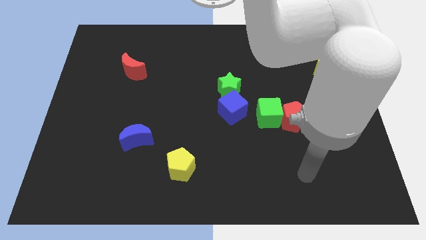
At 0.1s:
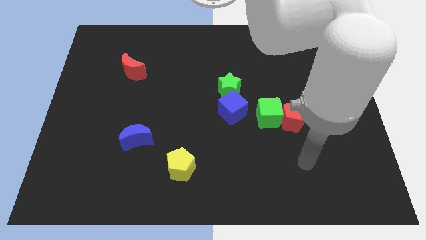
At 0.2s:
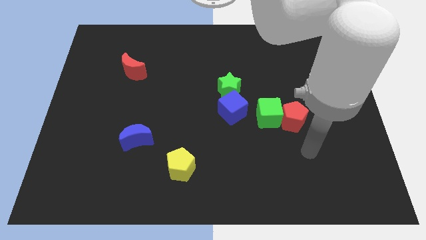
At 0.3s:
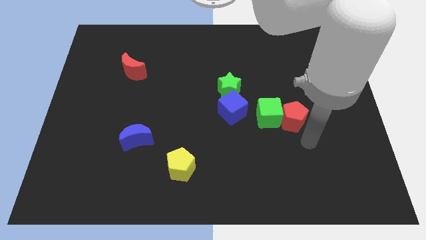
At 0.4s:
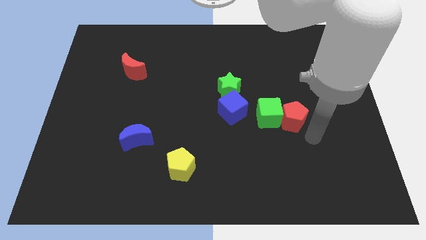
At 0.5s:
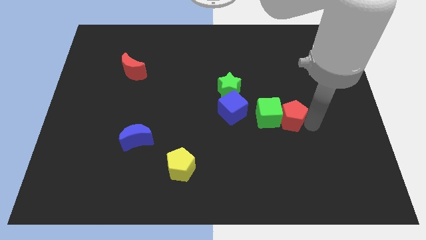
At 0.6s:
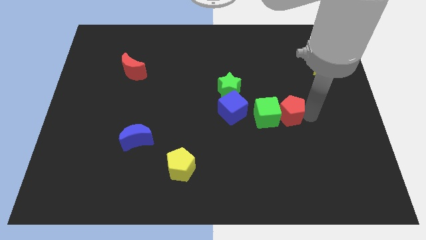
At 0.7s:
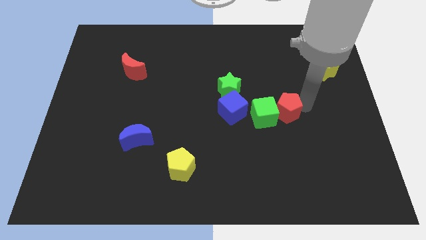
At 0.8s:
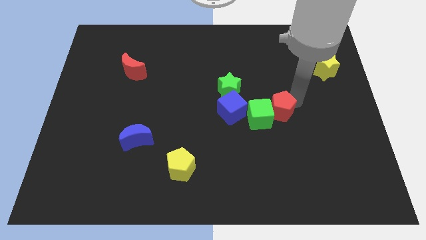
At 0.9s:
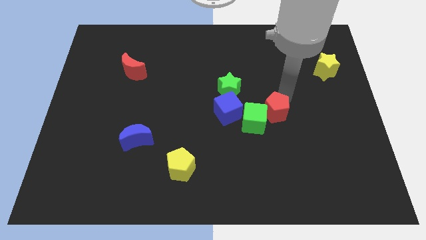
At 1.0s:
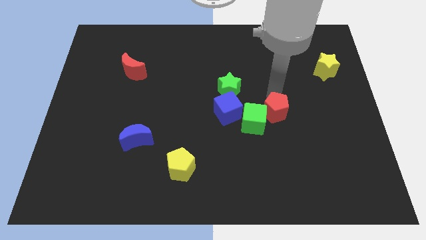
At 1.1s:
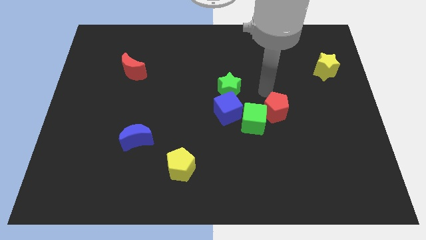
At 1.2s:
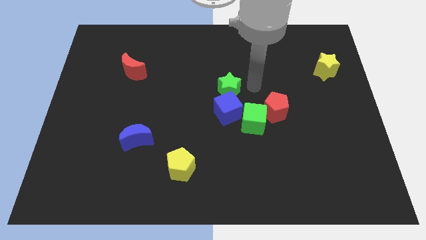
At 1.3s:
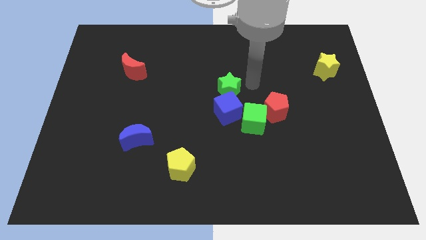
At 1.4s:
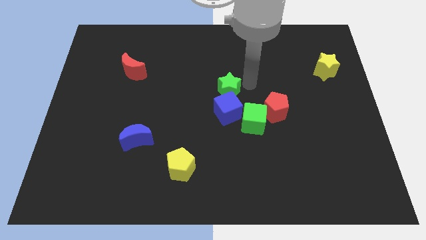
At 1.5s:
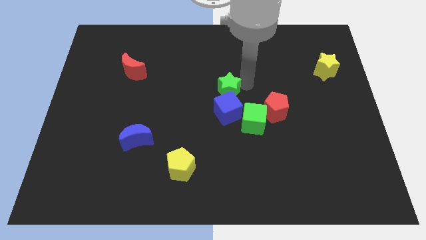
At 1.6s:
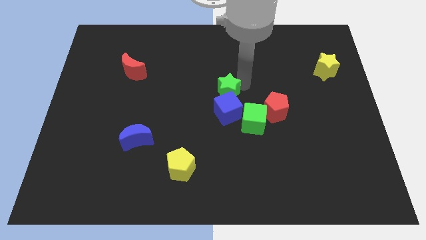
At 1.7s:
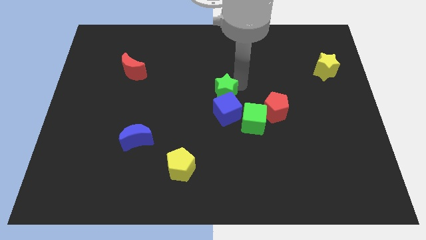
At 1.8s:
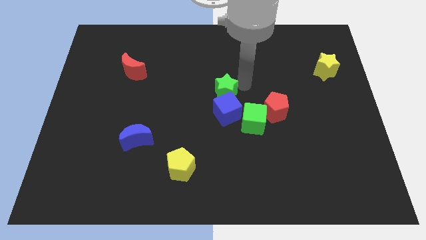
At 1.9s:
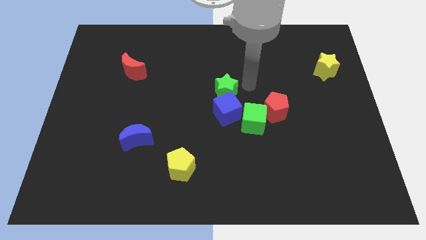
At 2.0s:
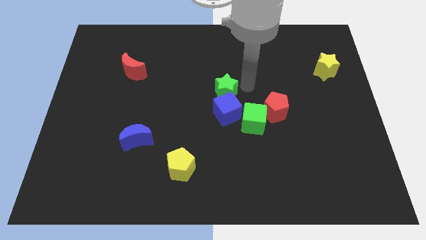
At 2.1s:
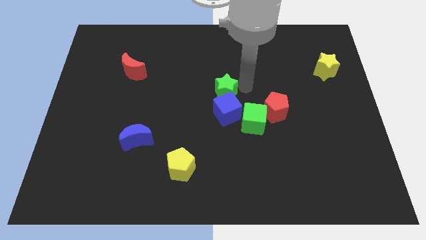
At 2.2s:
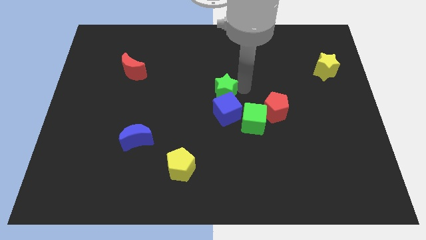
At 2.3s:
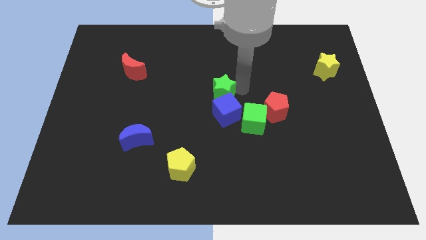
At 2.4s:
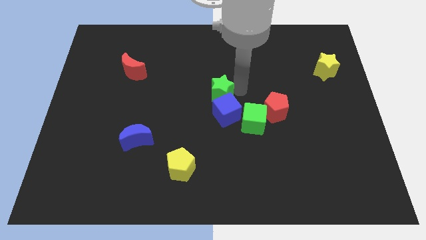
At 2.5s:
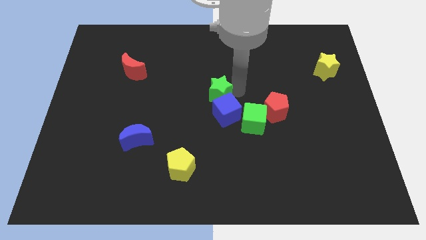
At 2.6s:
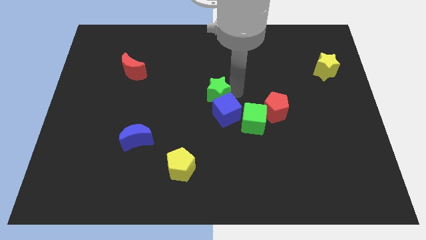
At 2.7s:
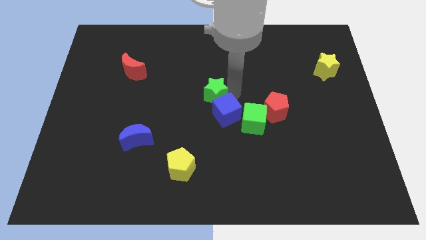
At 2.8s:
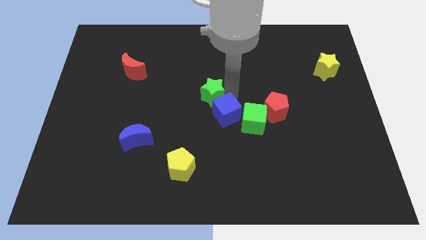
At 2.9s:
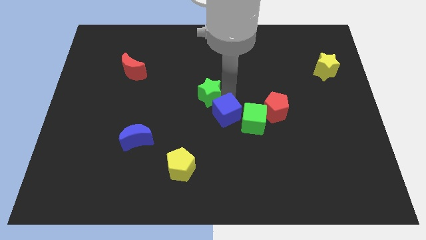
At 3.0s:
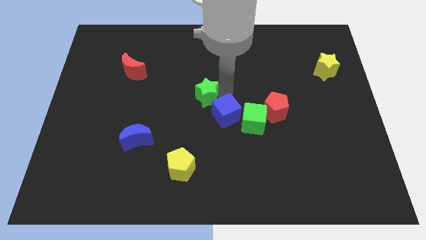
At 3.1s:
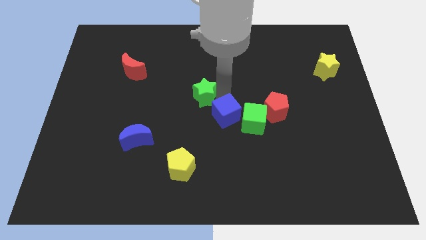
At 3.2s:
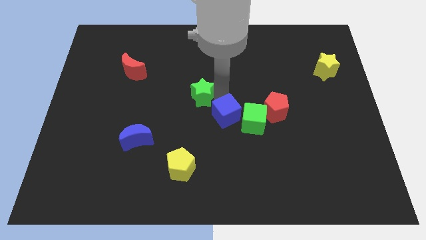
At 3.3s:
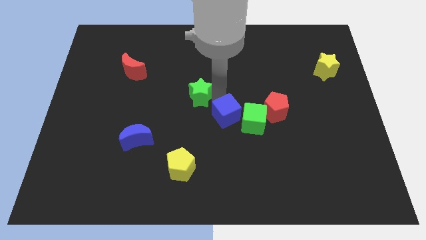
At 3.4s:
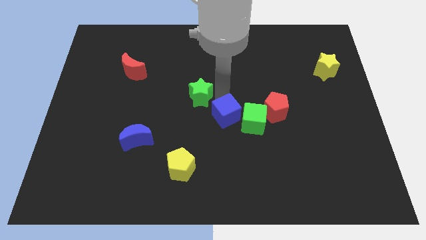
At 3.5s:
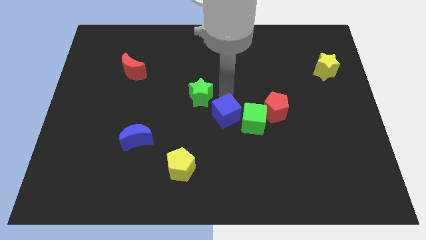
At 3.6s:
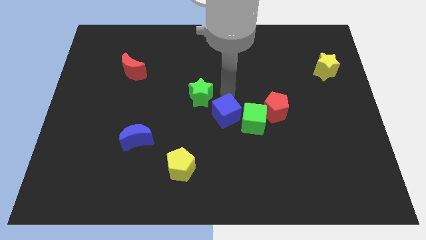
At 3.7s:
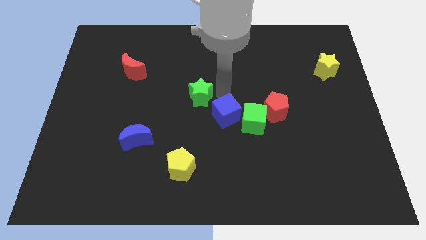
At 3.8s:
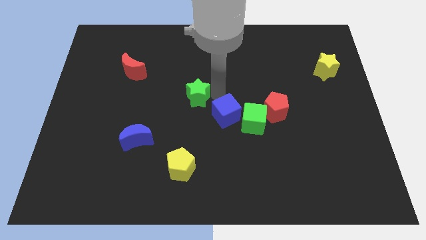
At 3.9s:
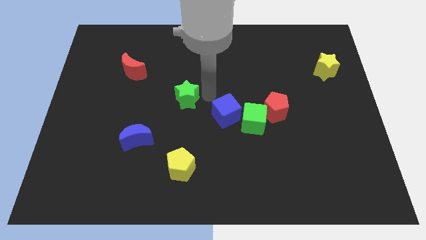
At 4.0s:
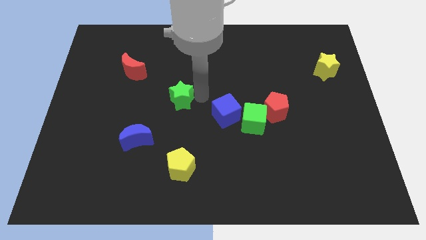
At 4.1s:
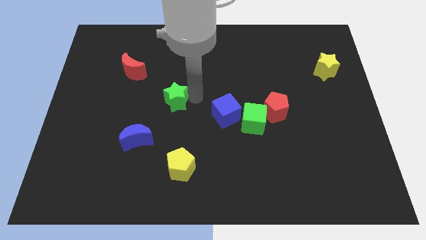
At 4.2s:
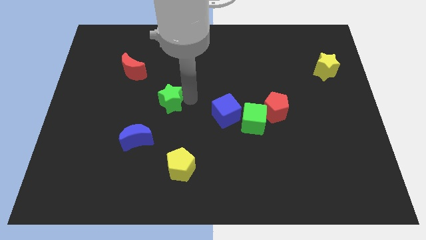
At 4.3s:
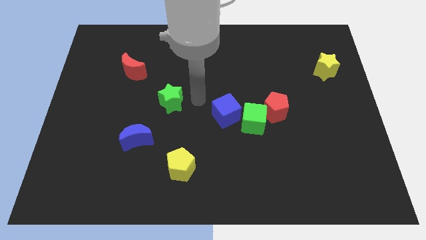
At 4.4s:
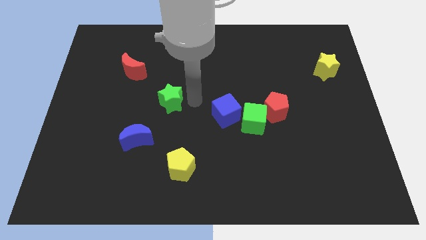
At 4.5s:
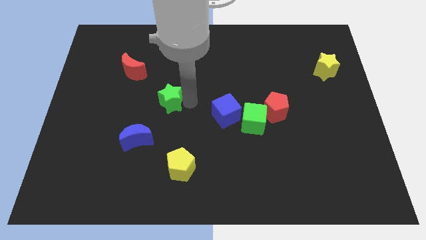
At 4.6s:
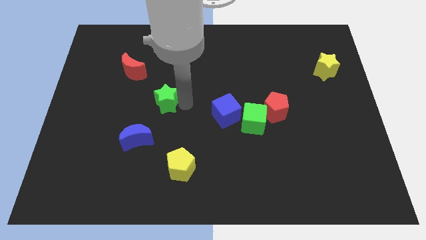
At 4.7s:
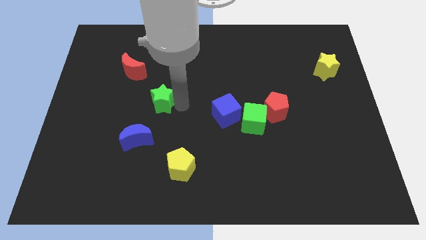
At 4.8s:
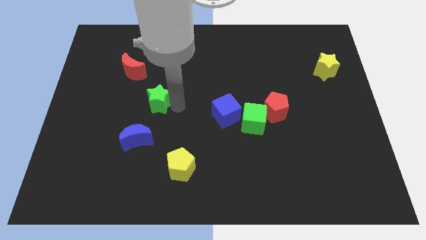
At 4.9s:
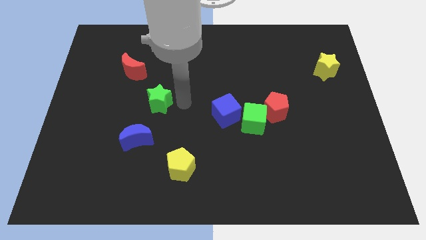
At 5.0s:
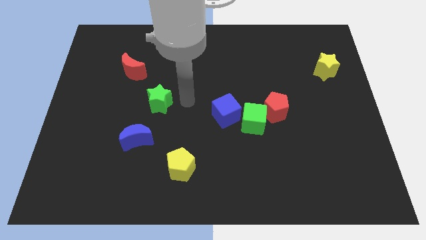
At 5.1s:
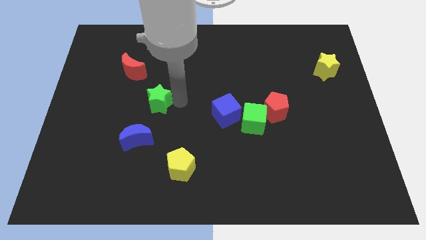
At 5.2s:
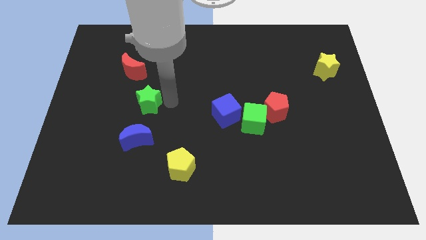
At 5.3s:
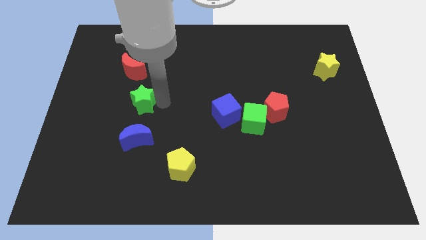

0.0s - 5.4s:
put the green star to the bottom side of the red moon

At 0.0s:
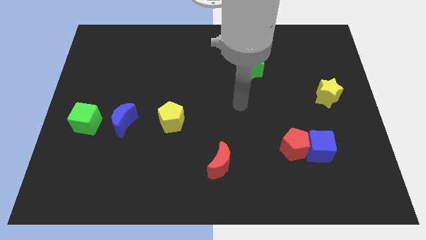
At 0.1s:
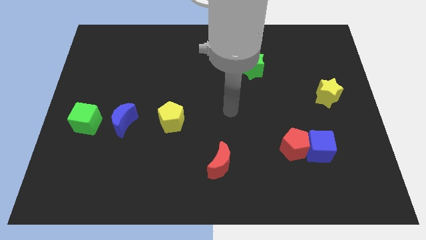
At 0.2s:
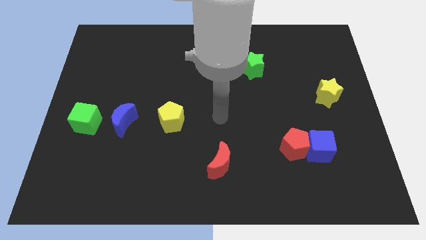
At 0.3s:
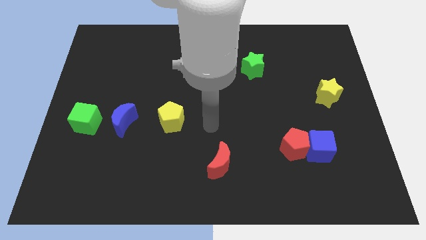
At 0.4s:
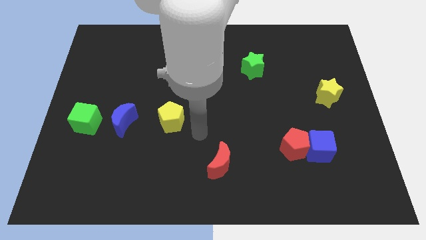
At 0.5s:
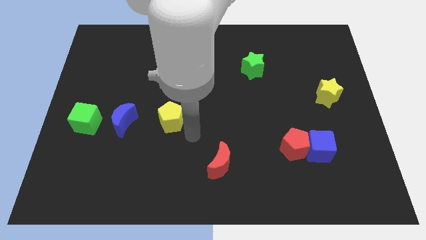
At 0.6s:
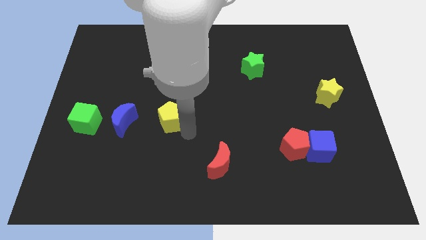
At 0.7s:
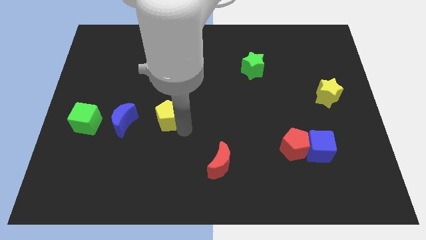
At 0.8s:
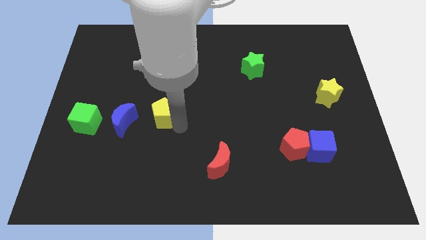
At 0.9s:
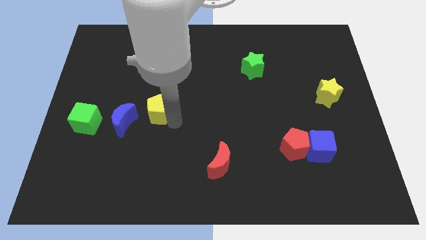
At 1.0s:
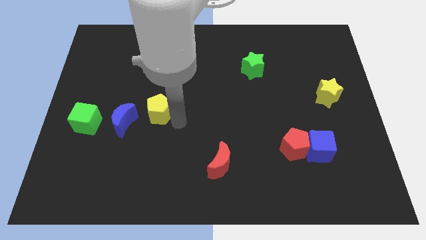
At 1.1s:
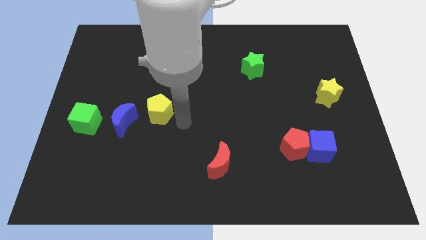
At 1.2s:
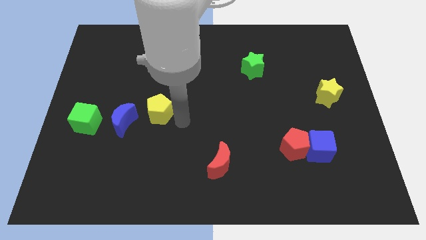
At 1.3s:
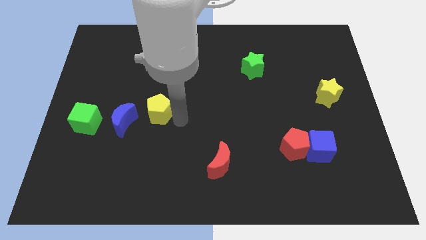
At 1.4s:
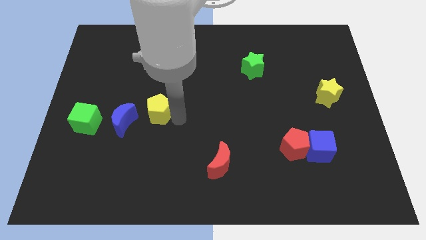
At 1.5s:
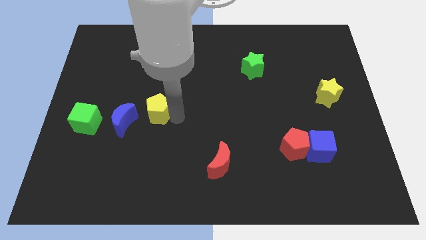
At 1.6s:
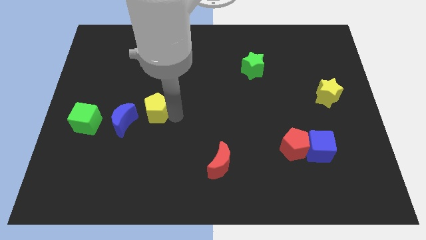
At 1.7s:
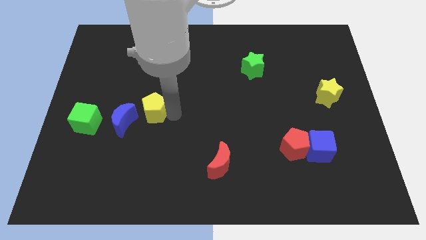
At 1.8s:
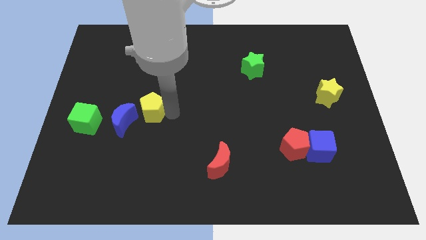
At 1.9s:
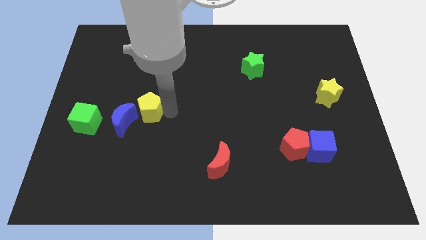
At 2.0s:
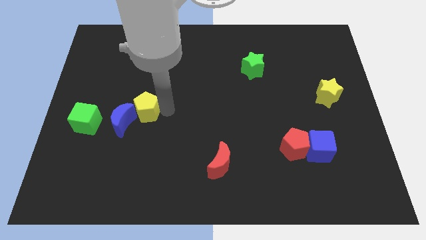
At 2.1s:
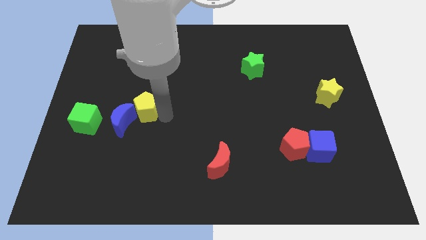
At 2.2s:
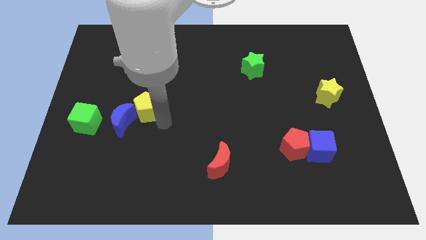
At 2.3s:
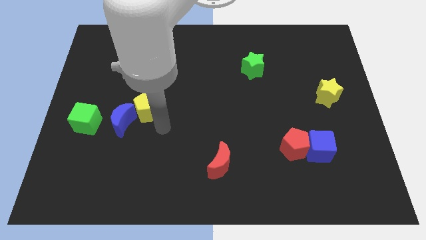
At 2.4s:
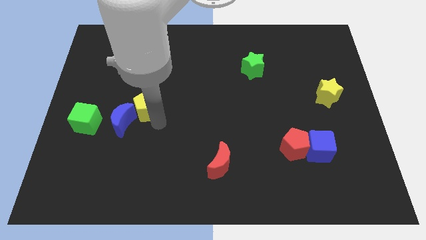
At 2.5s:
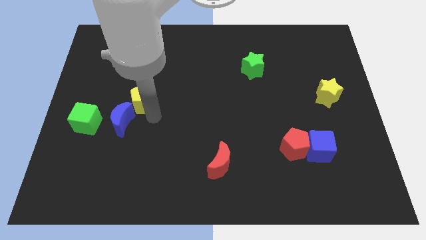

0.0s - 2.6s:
push the yellow pentagon to the top of the blue moon
